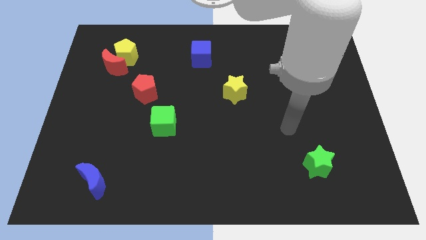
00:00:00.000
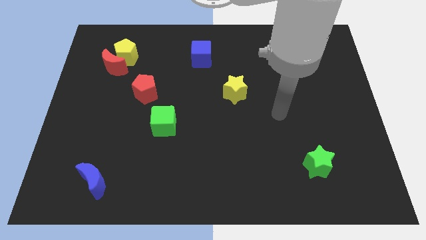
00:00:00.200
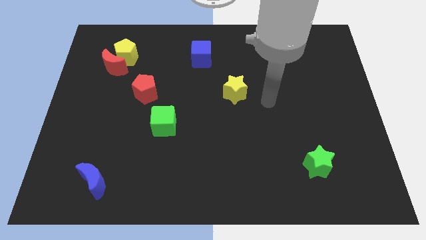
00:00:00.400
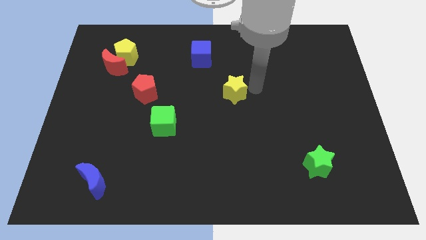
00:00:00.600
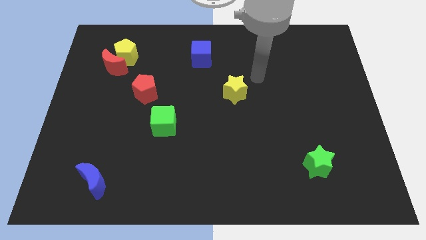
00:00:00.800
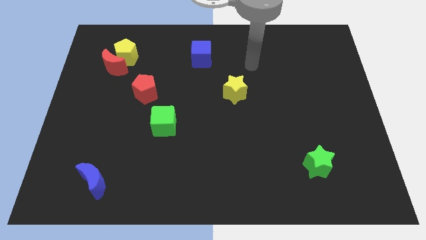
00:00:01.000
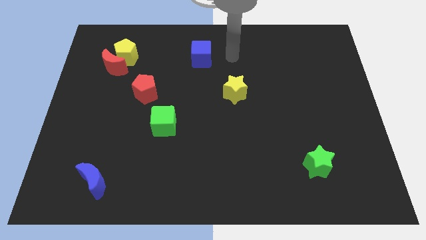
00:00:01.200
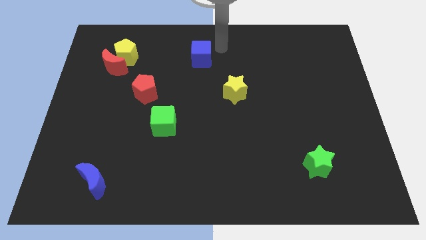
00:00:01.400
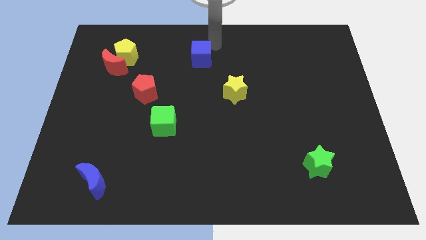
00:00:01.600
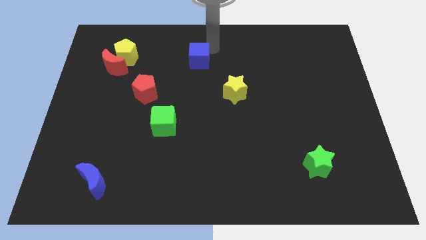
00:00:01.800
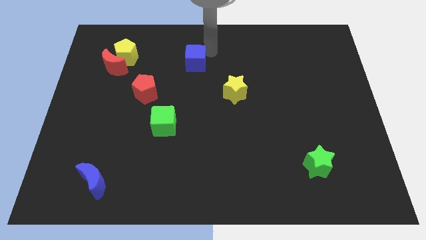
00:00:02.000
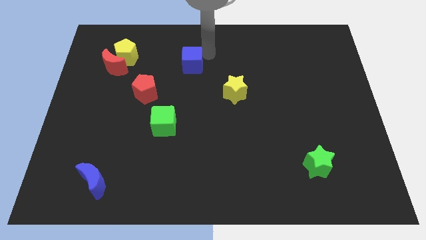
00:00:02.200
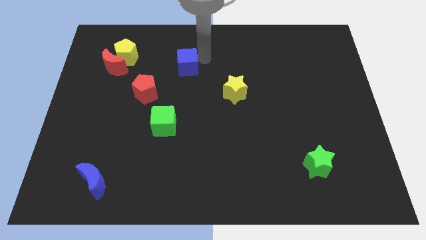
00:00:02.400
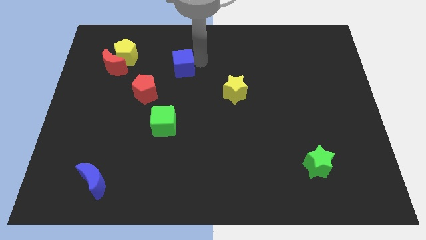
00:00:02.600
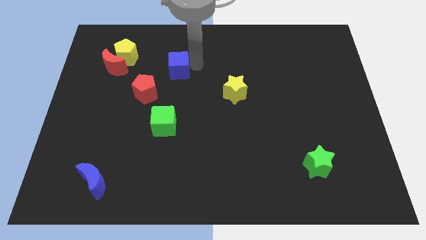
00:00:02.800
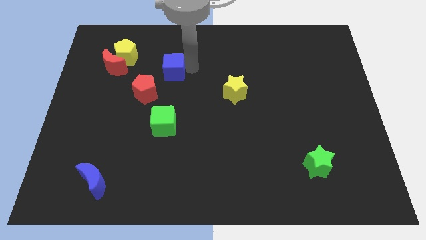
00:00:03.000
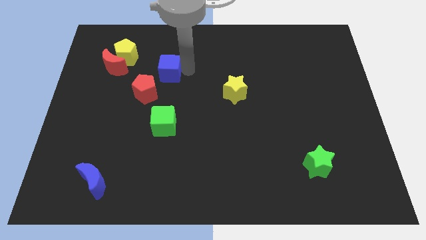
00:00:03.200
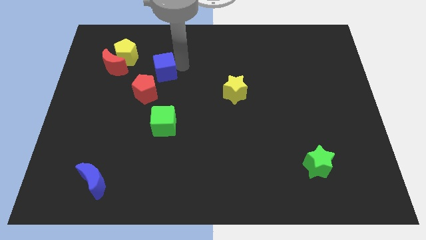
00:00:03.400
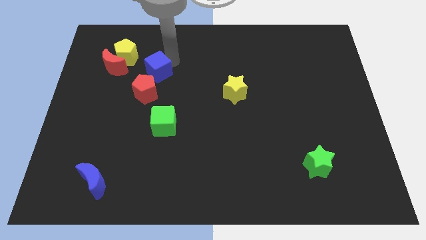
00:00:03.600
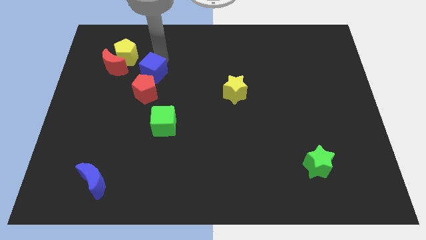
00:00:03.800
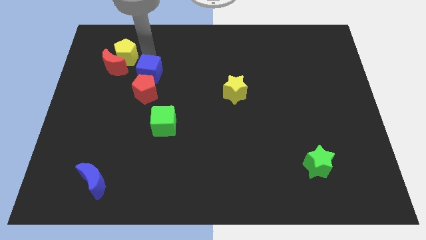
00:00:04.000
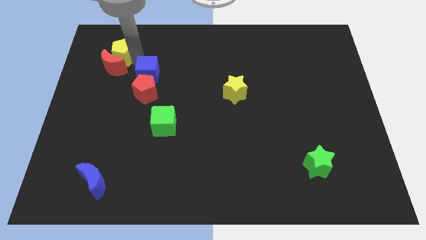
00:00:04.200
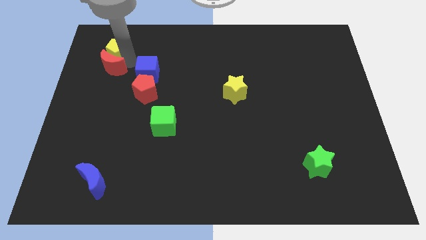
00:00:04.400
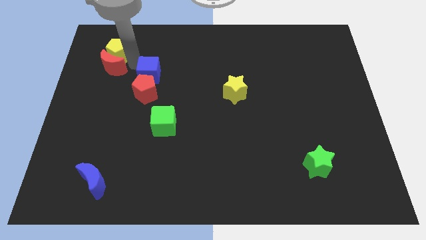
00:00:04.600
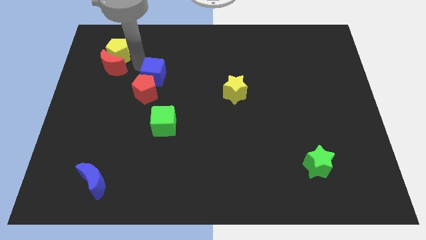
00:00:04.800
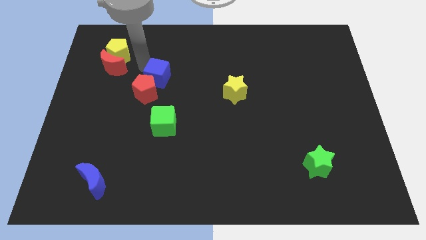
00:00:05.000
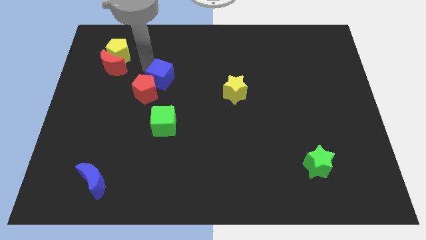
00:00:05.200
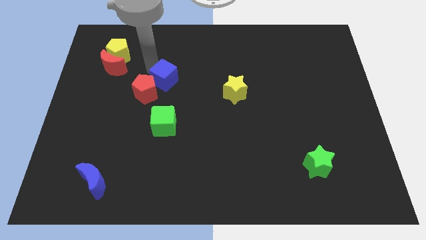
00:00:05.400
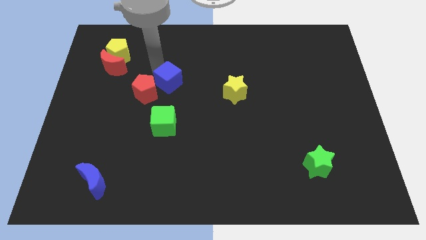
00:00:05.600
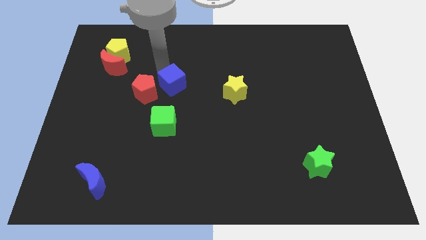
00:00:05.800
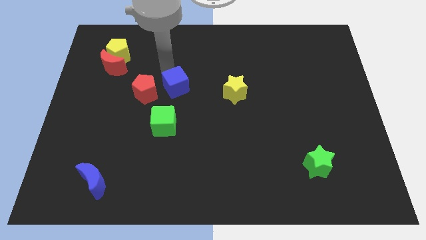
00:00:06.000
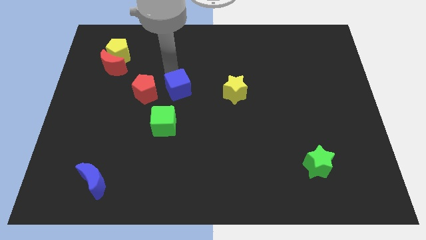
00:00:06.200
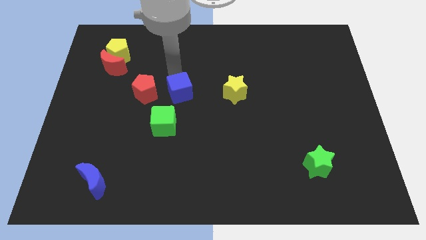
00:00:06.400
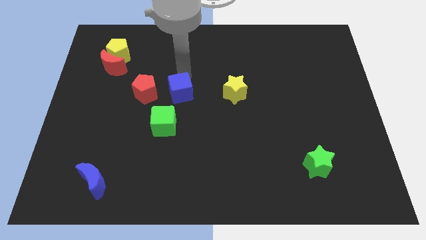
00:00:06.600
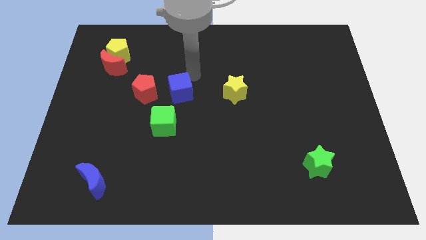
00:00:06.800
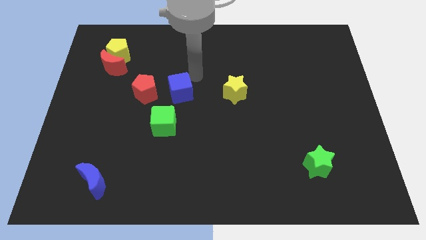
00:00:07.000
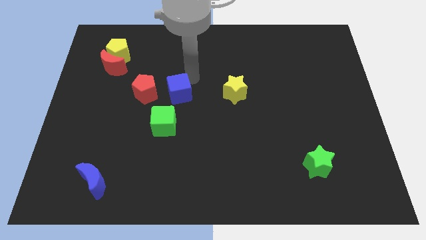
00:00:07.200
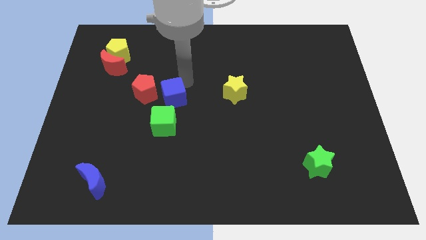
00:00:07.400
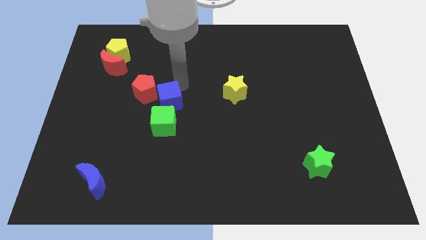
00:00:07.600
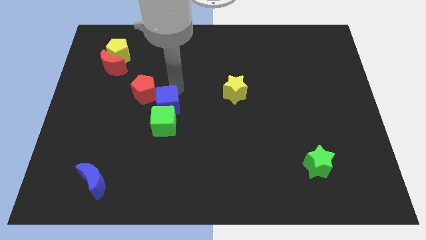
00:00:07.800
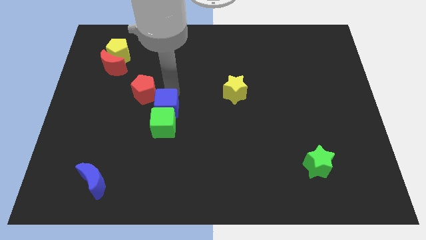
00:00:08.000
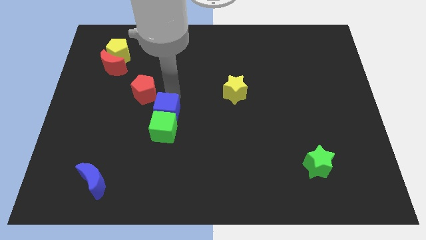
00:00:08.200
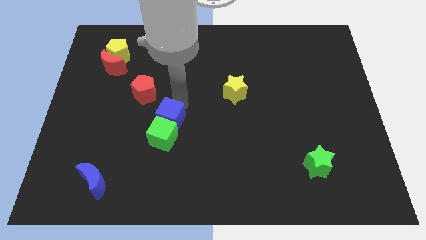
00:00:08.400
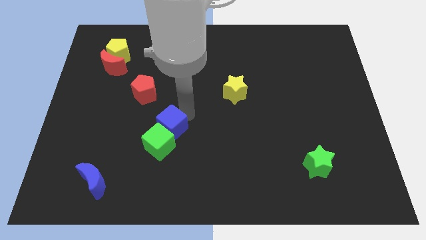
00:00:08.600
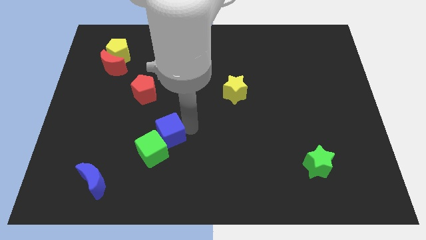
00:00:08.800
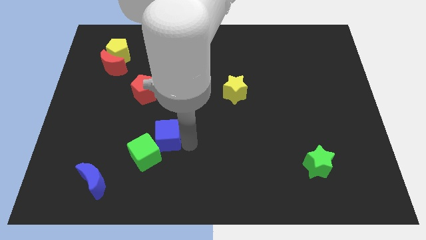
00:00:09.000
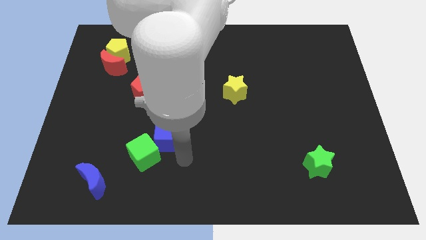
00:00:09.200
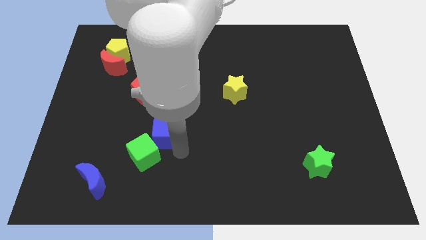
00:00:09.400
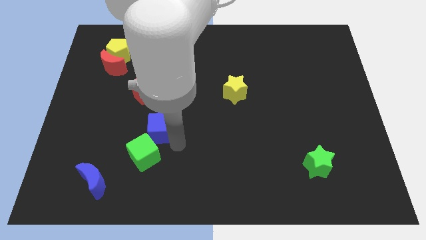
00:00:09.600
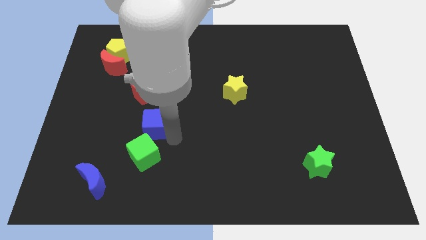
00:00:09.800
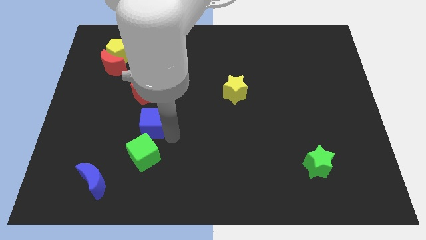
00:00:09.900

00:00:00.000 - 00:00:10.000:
push the blue cube diagonally downwards and left

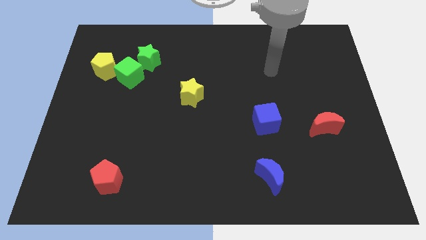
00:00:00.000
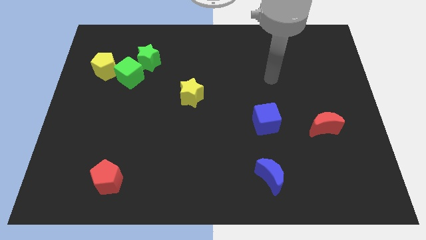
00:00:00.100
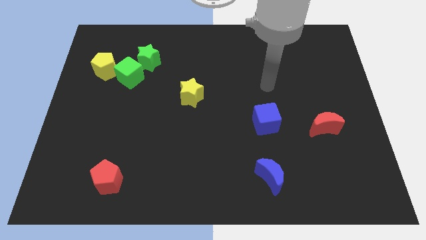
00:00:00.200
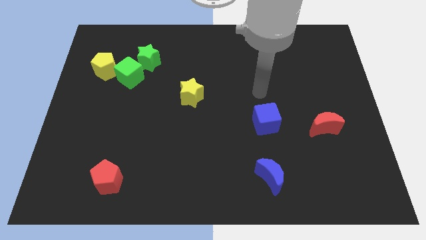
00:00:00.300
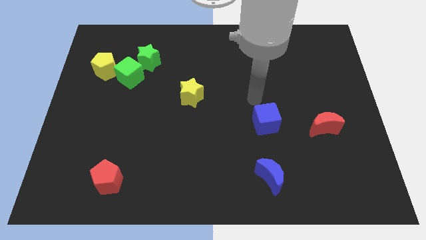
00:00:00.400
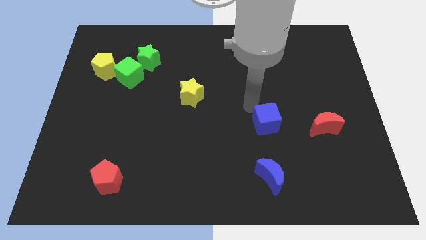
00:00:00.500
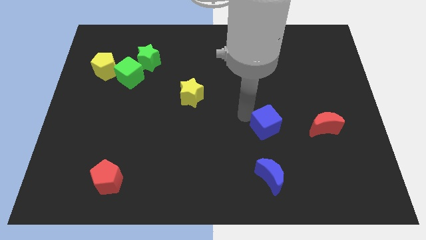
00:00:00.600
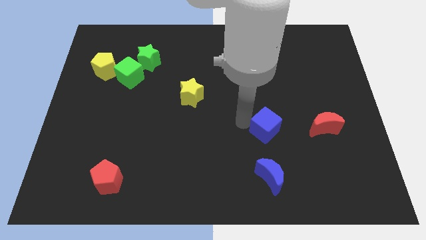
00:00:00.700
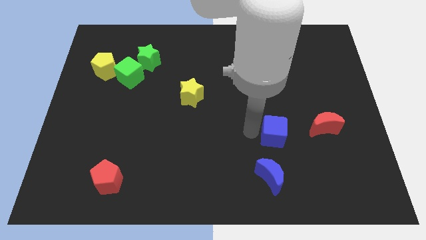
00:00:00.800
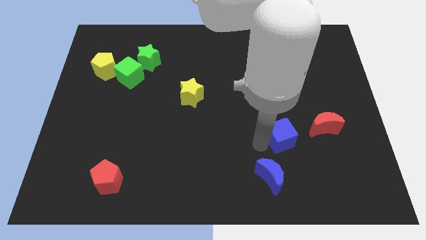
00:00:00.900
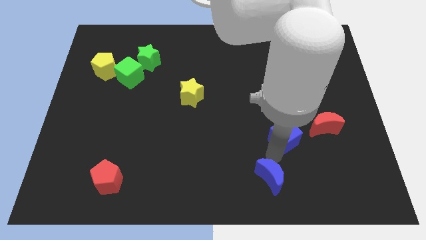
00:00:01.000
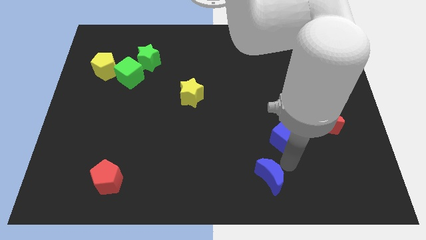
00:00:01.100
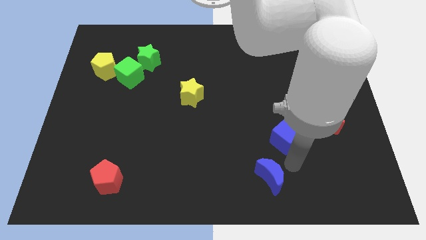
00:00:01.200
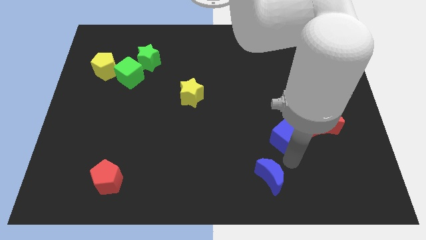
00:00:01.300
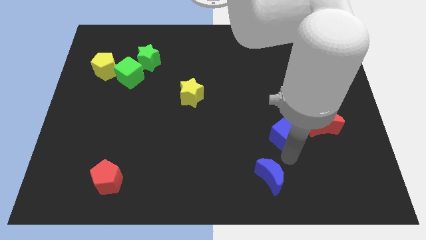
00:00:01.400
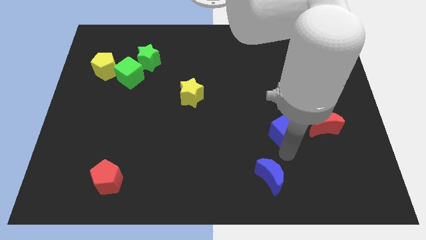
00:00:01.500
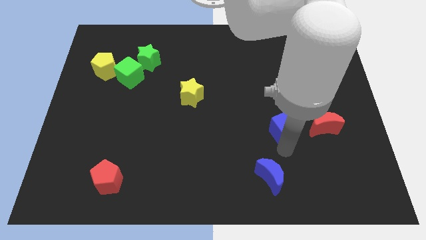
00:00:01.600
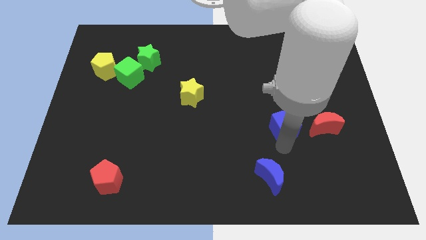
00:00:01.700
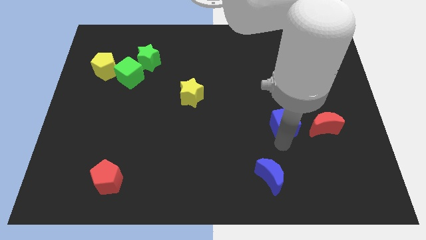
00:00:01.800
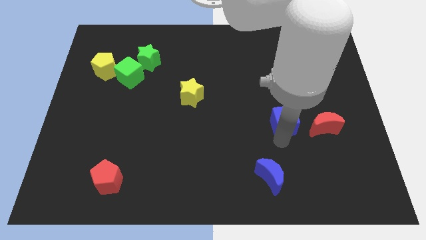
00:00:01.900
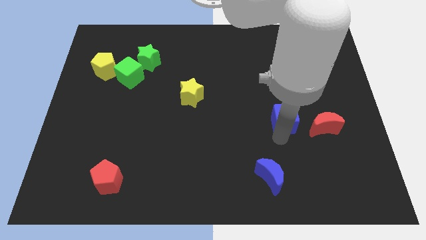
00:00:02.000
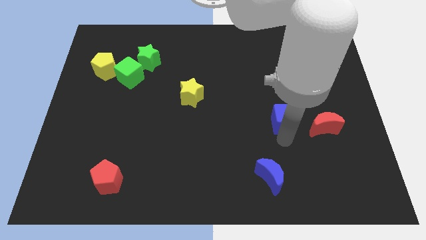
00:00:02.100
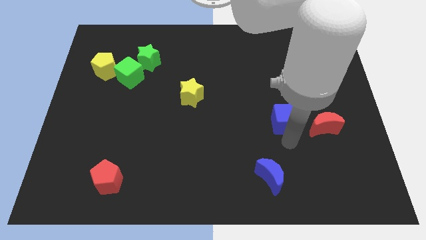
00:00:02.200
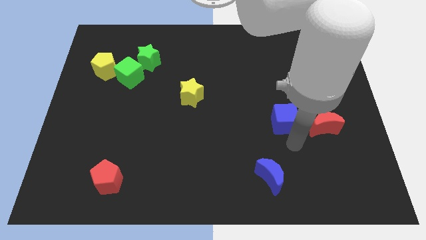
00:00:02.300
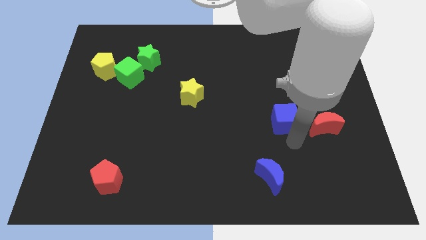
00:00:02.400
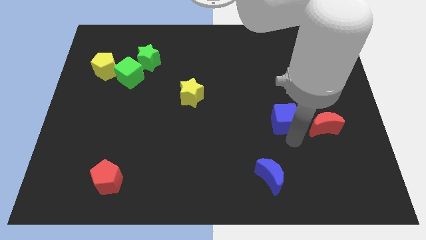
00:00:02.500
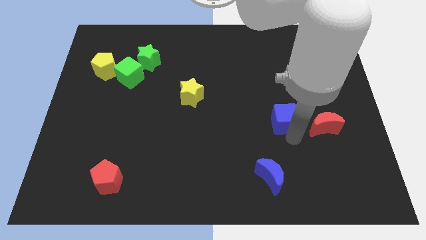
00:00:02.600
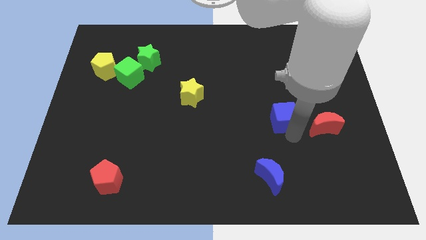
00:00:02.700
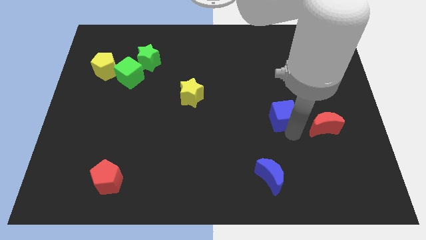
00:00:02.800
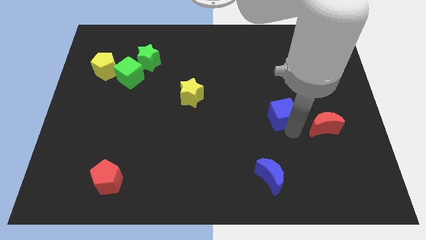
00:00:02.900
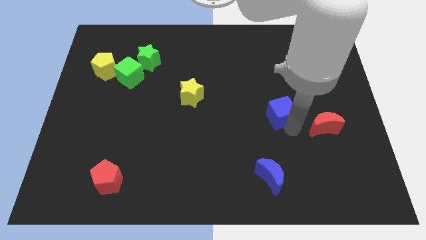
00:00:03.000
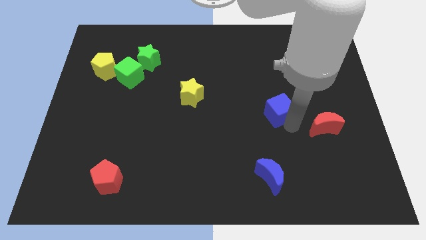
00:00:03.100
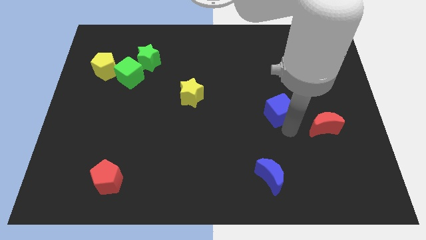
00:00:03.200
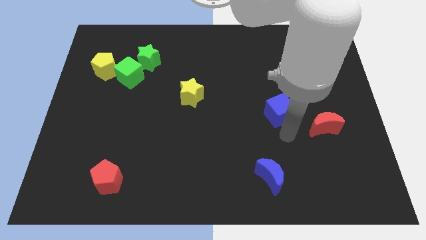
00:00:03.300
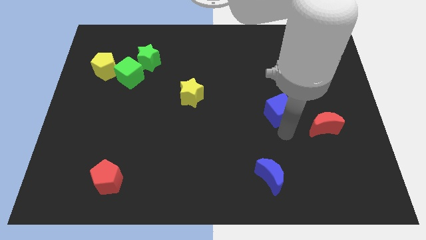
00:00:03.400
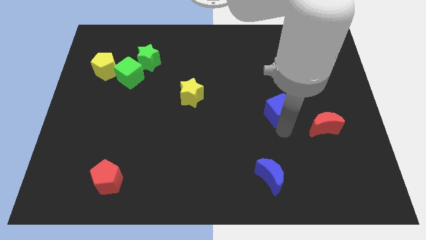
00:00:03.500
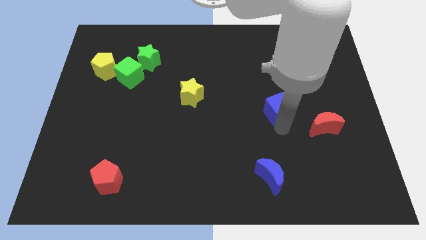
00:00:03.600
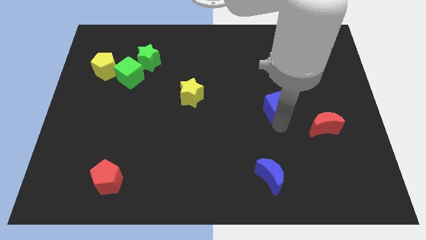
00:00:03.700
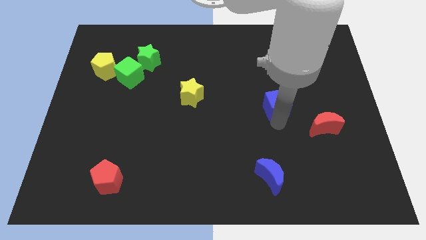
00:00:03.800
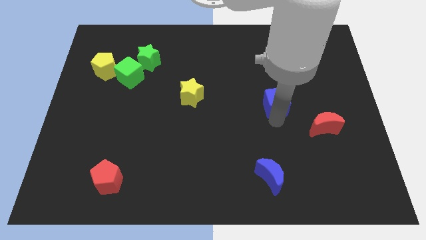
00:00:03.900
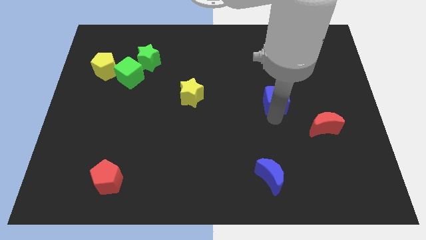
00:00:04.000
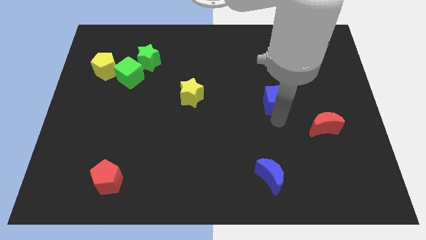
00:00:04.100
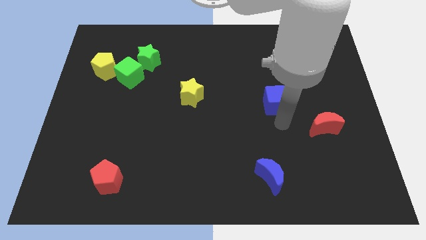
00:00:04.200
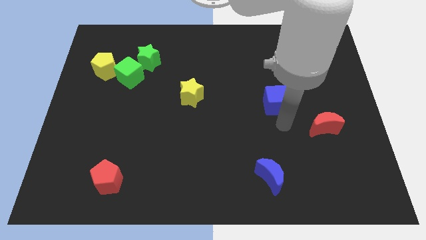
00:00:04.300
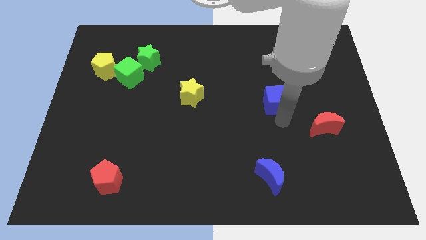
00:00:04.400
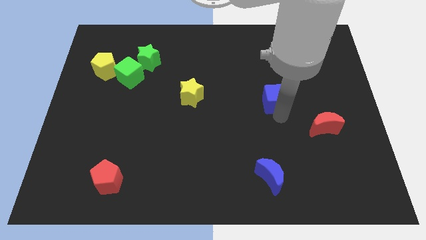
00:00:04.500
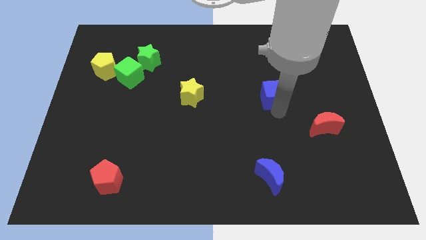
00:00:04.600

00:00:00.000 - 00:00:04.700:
slightly push the blue cube up
